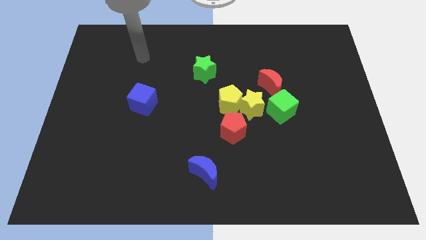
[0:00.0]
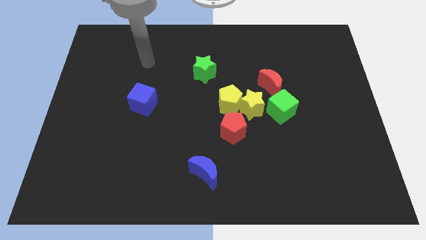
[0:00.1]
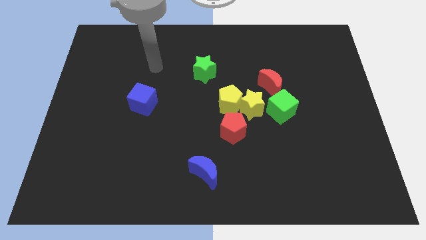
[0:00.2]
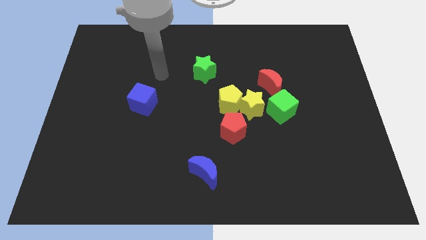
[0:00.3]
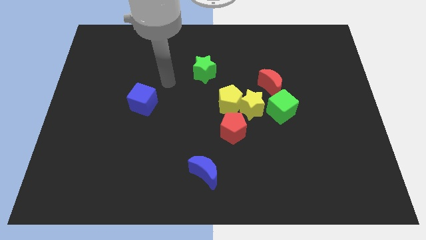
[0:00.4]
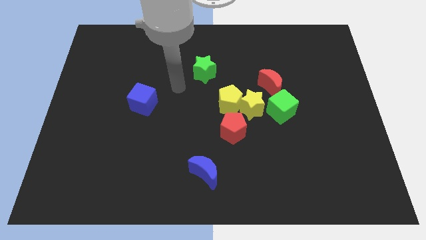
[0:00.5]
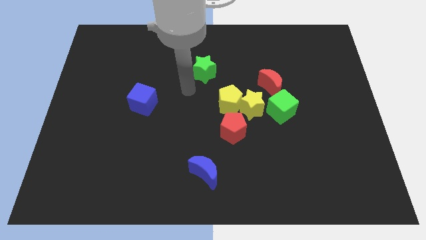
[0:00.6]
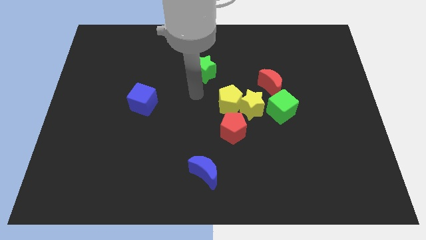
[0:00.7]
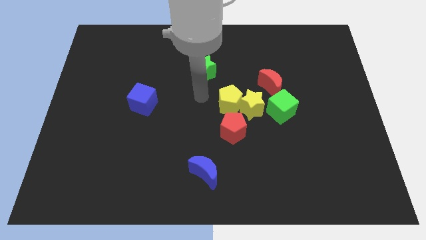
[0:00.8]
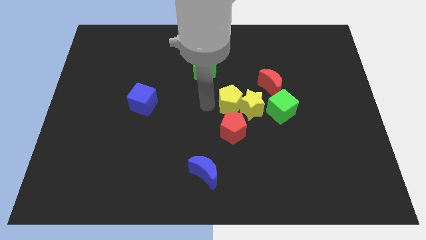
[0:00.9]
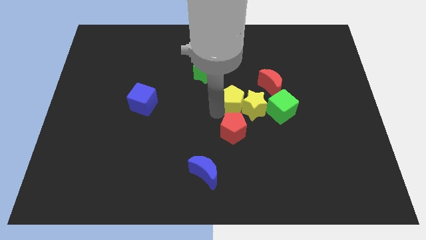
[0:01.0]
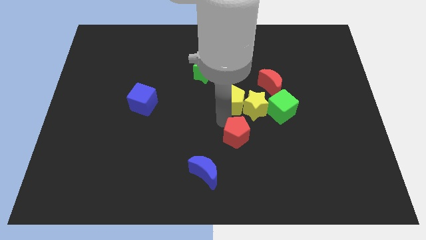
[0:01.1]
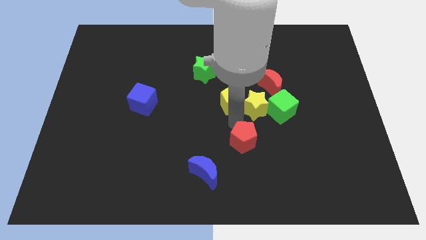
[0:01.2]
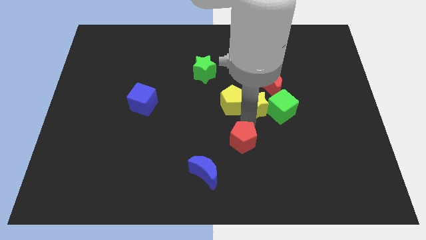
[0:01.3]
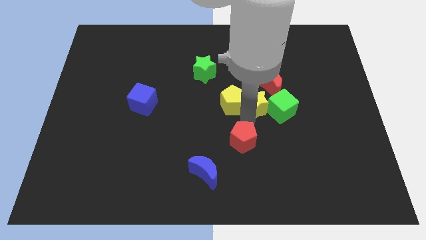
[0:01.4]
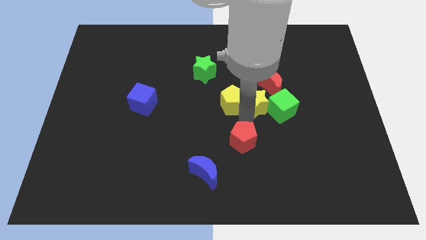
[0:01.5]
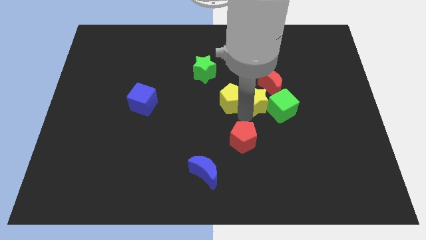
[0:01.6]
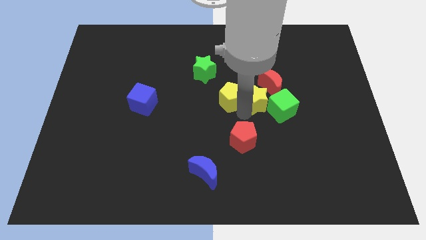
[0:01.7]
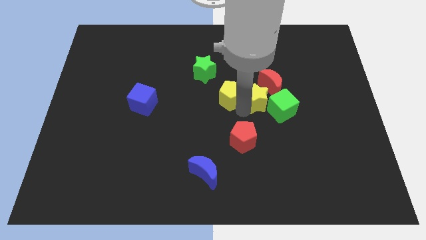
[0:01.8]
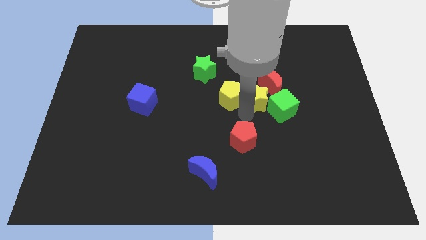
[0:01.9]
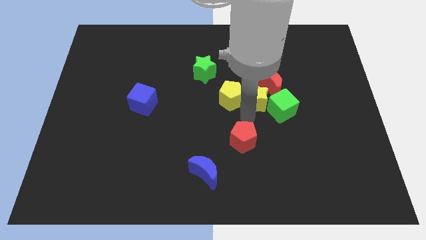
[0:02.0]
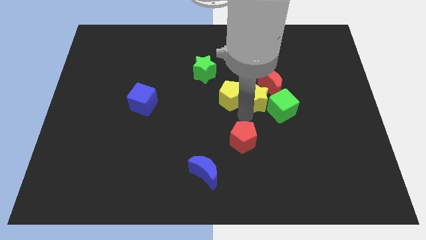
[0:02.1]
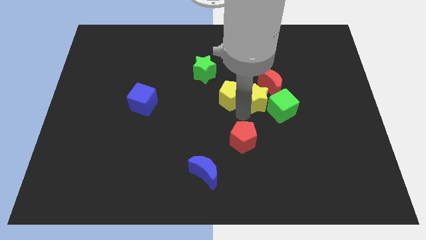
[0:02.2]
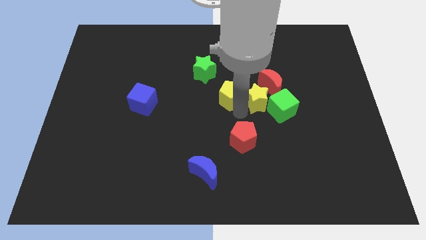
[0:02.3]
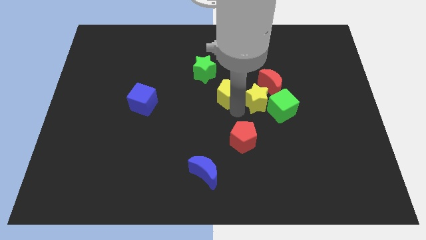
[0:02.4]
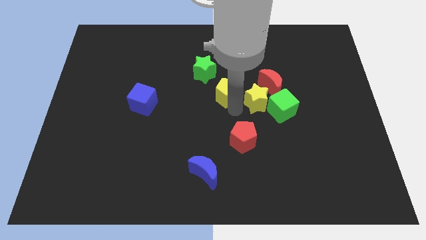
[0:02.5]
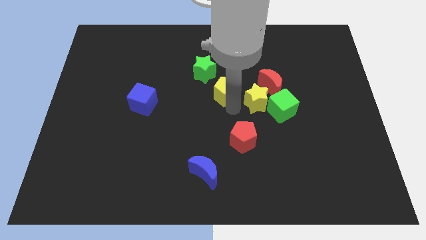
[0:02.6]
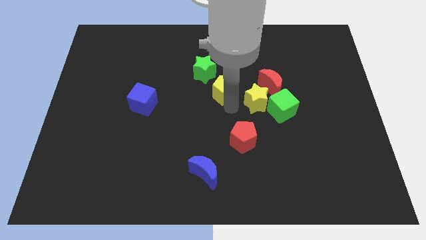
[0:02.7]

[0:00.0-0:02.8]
separate the yellow pentagon from the yellow star and red pentagon

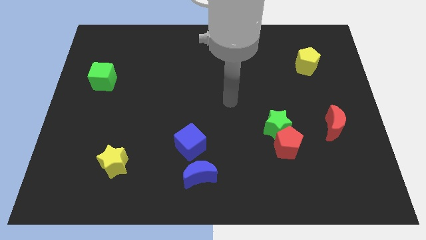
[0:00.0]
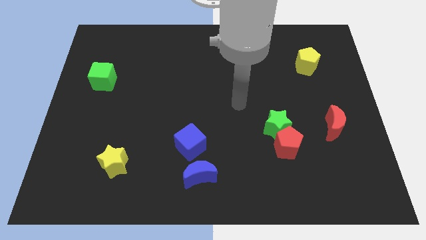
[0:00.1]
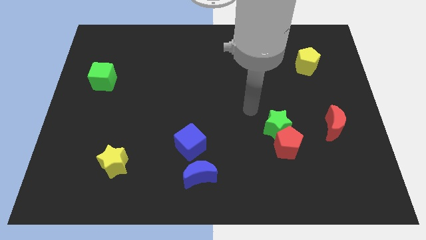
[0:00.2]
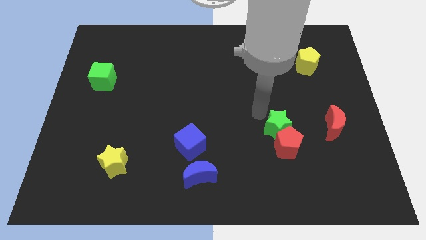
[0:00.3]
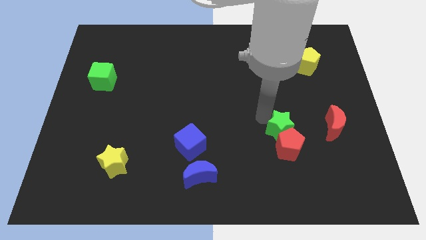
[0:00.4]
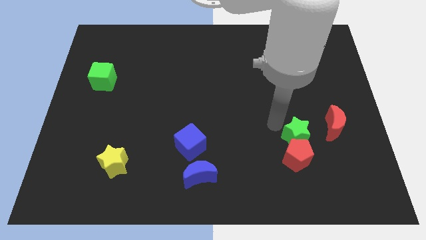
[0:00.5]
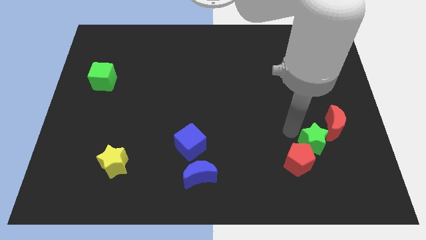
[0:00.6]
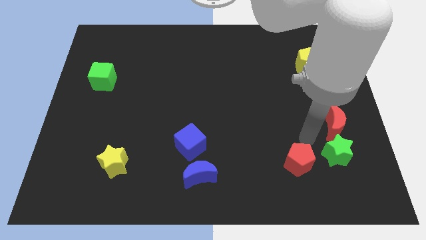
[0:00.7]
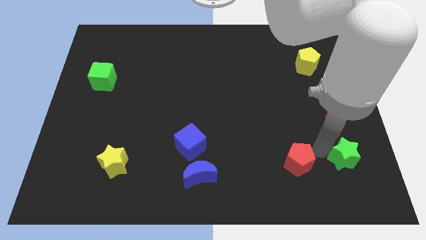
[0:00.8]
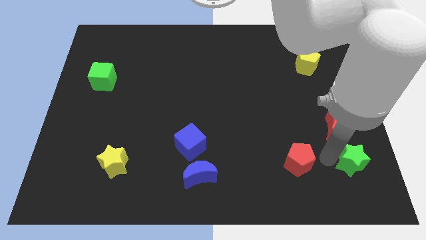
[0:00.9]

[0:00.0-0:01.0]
move the red pentagon away from the green star

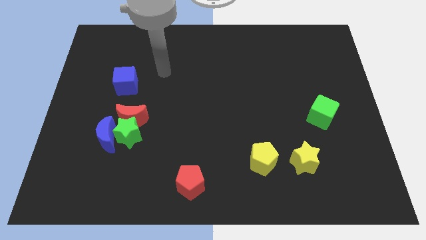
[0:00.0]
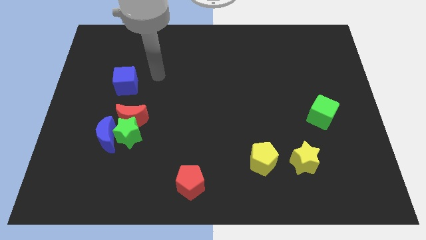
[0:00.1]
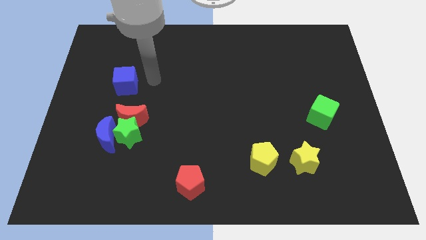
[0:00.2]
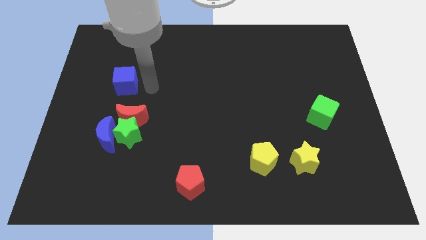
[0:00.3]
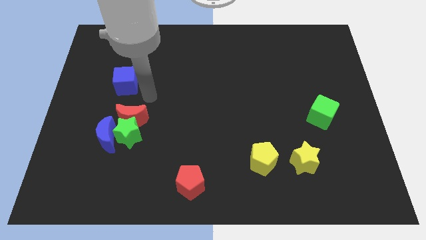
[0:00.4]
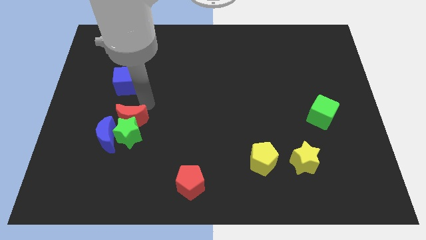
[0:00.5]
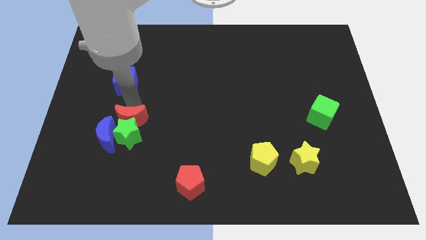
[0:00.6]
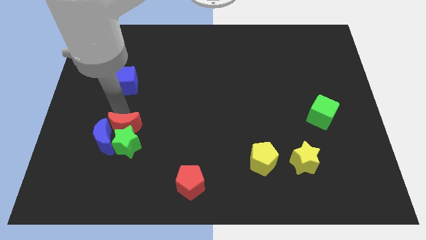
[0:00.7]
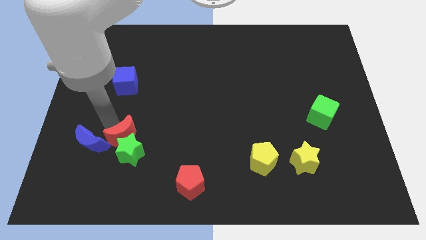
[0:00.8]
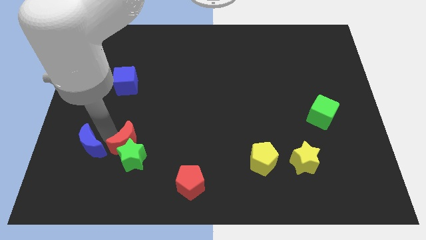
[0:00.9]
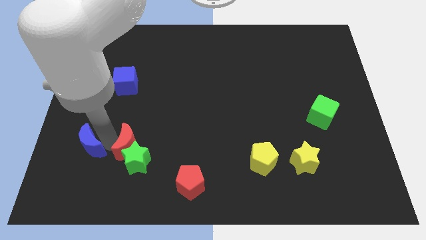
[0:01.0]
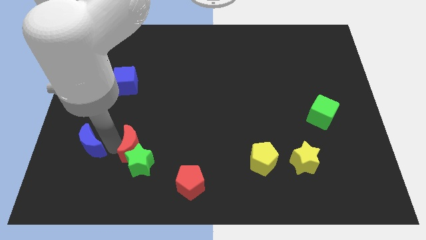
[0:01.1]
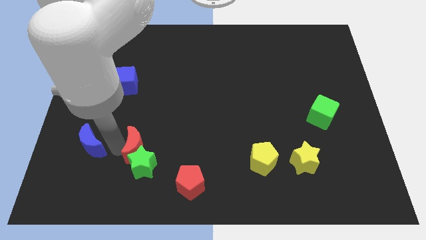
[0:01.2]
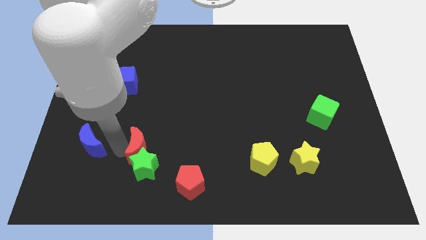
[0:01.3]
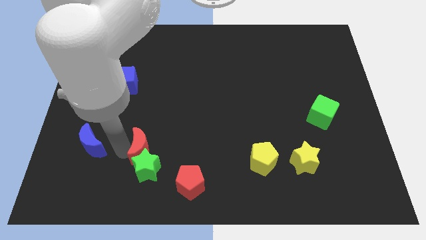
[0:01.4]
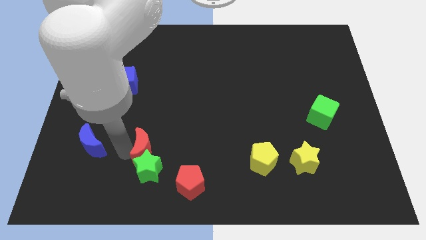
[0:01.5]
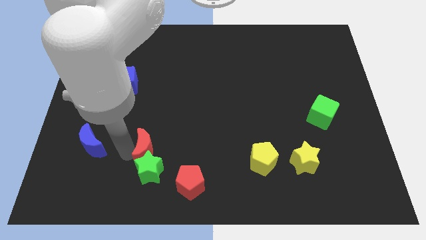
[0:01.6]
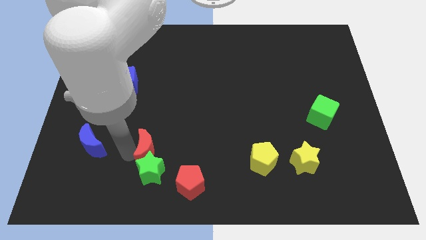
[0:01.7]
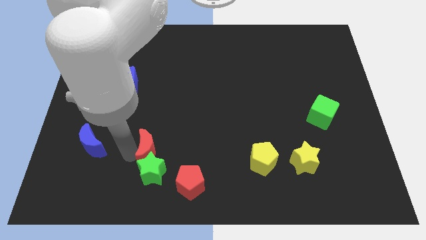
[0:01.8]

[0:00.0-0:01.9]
separate the green star from the red moon and blue moon

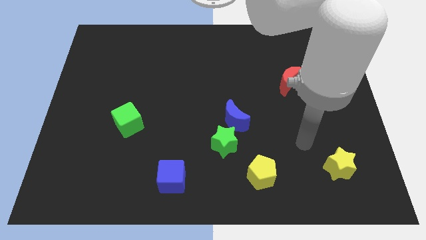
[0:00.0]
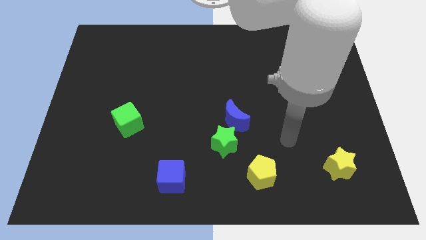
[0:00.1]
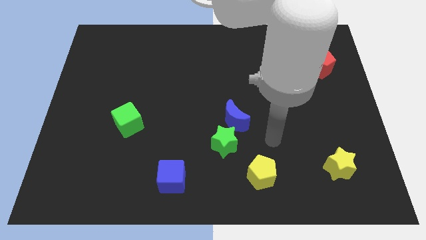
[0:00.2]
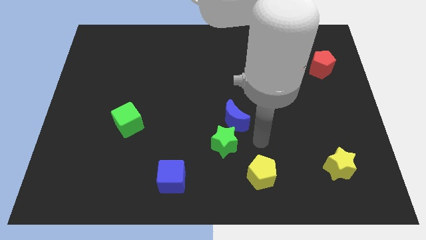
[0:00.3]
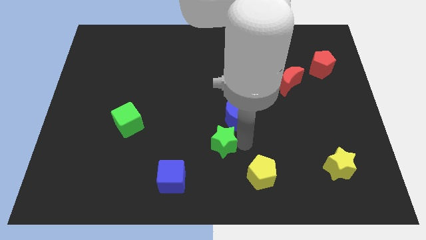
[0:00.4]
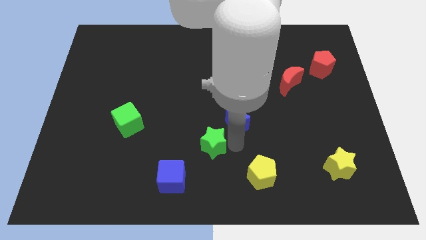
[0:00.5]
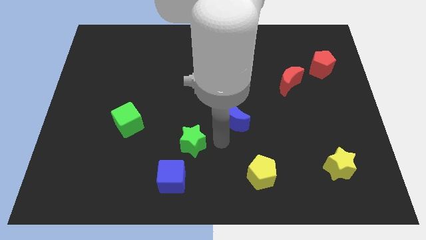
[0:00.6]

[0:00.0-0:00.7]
pull the blue moon apart from the green star

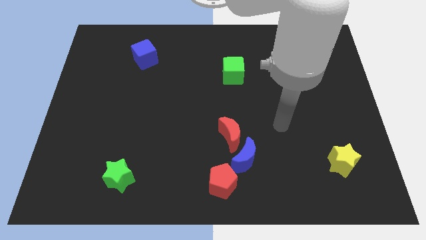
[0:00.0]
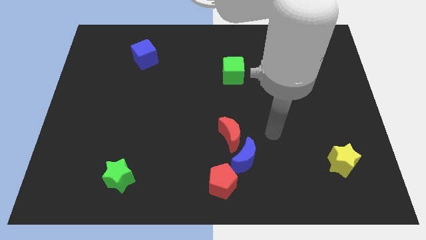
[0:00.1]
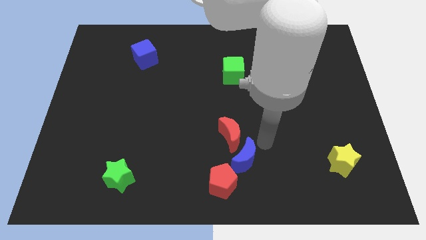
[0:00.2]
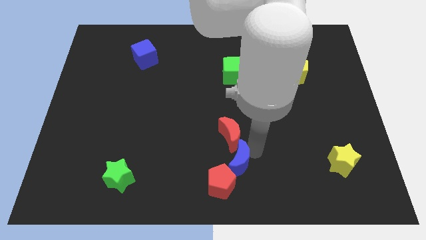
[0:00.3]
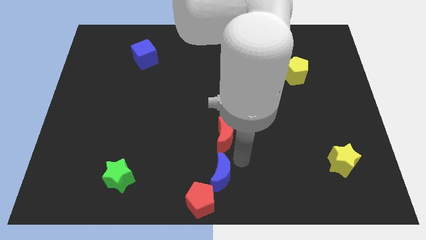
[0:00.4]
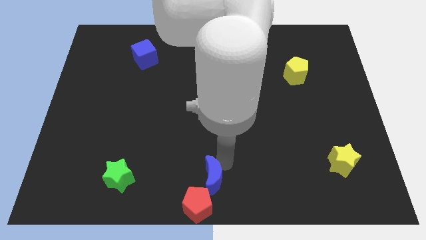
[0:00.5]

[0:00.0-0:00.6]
separate the red moon from the blue moon

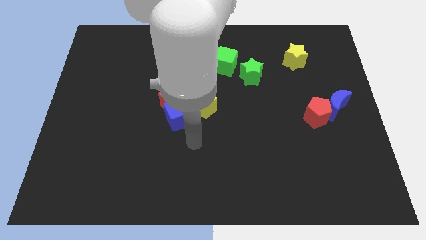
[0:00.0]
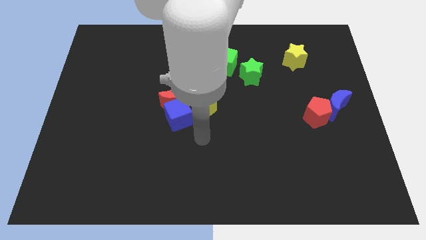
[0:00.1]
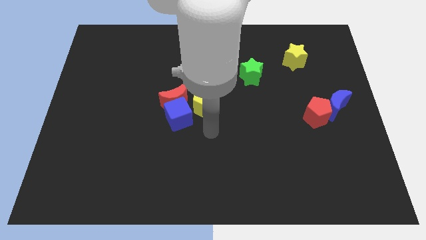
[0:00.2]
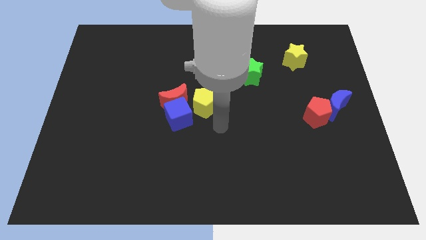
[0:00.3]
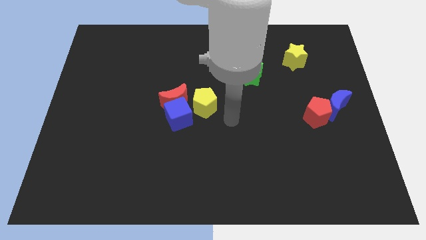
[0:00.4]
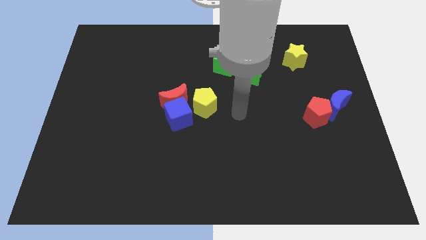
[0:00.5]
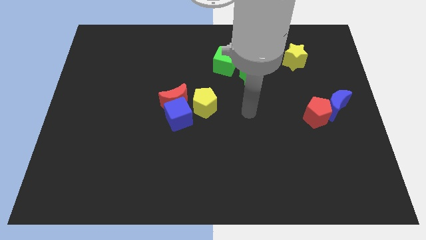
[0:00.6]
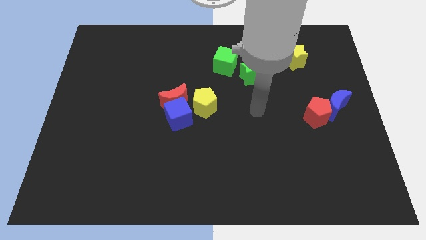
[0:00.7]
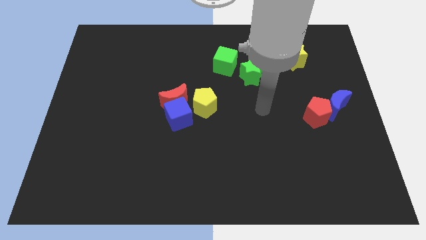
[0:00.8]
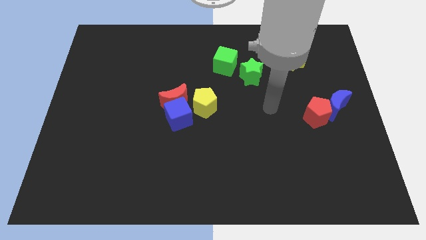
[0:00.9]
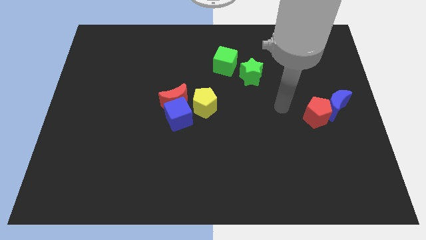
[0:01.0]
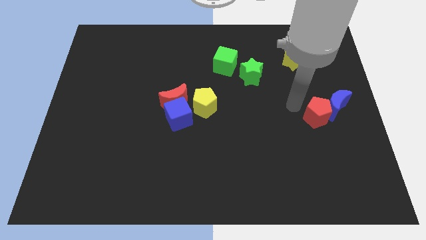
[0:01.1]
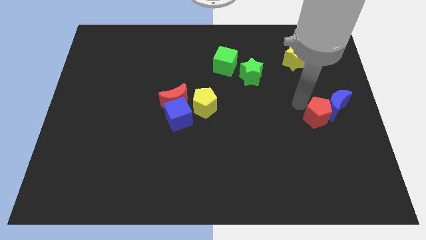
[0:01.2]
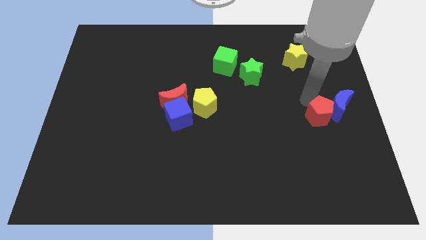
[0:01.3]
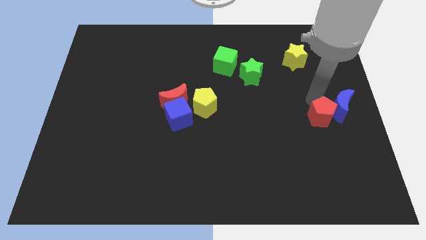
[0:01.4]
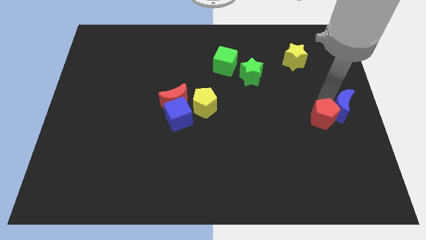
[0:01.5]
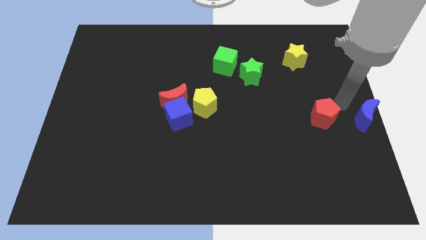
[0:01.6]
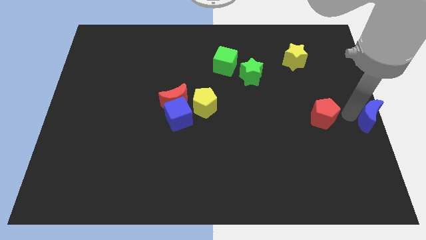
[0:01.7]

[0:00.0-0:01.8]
pull the red pentagon apart from the blue moon

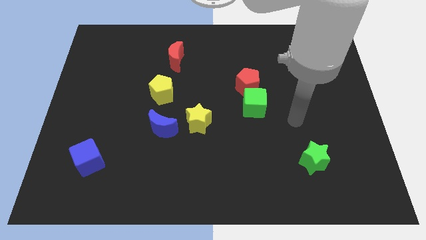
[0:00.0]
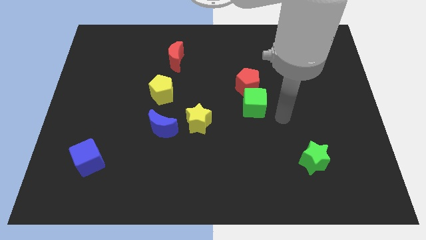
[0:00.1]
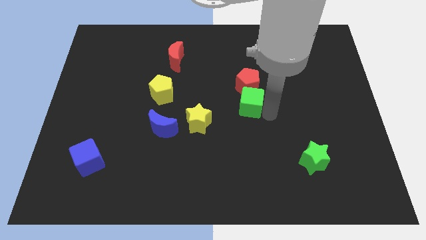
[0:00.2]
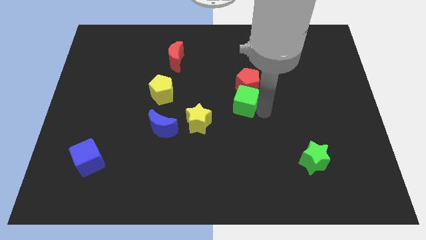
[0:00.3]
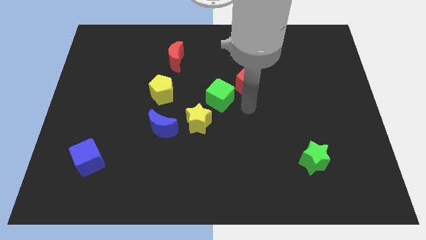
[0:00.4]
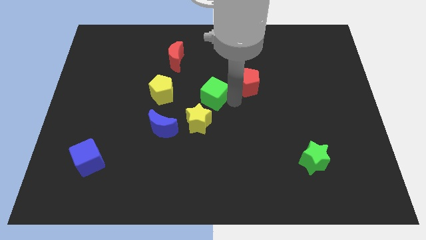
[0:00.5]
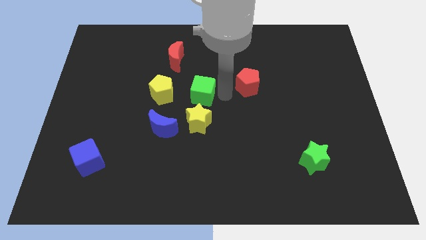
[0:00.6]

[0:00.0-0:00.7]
move the red pentagon away from the green cube

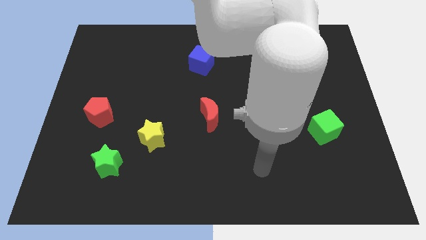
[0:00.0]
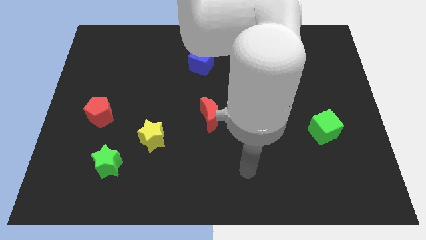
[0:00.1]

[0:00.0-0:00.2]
separate the green star from the yellow star
